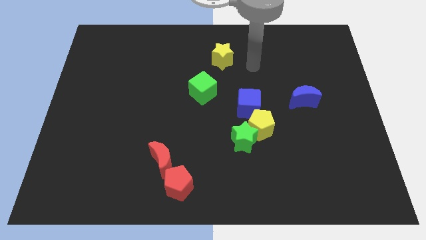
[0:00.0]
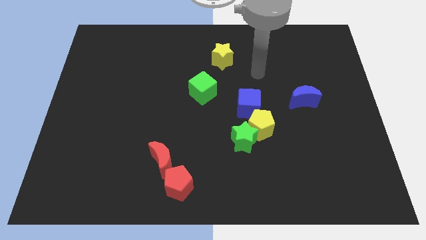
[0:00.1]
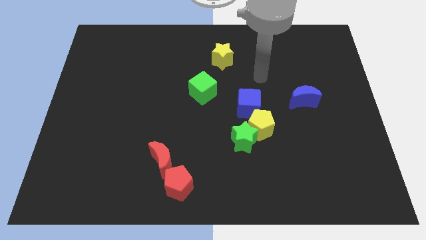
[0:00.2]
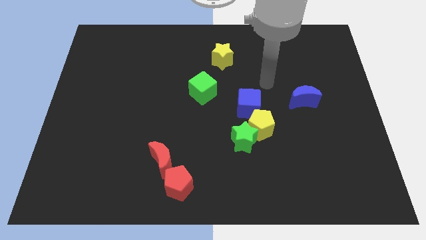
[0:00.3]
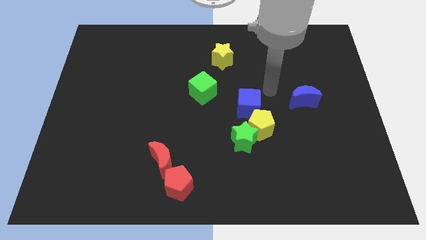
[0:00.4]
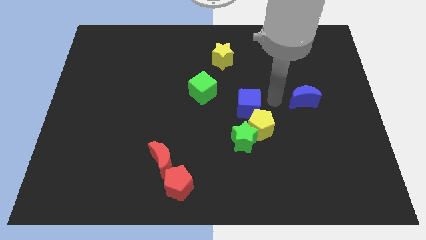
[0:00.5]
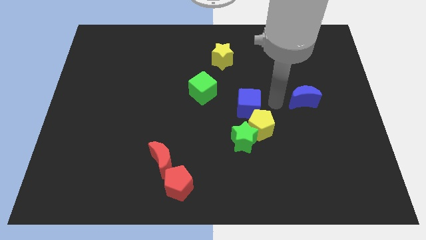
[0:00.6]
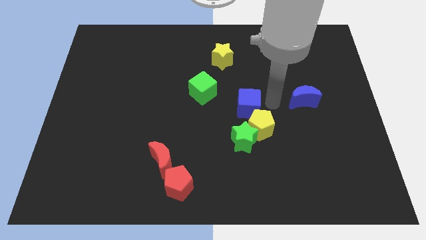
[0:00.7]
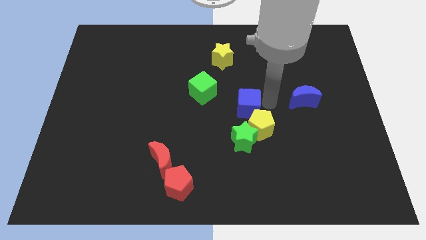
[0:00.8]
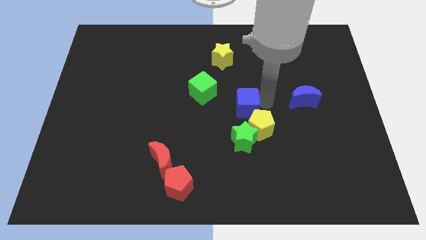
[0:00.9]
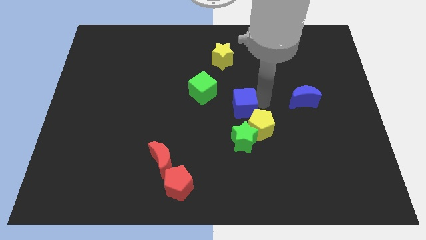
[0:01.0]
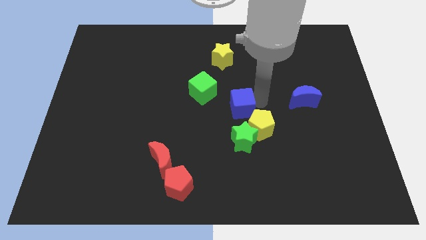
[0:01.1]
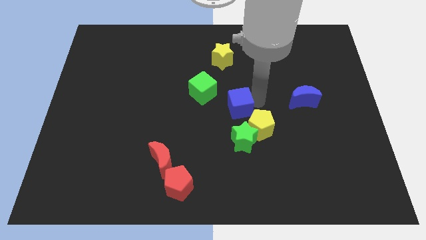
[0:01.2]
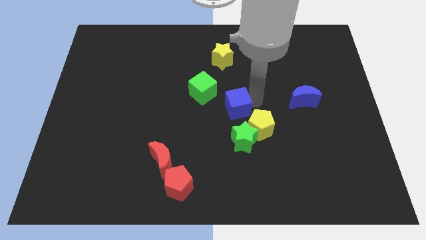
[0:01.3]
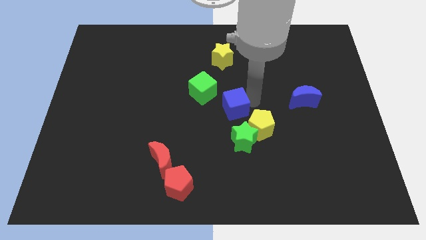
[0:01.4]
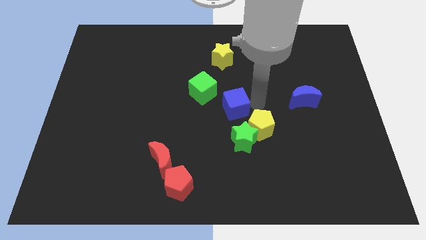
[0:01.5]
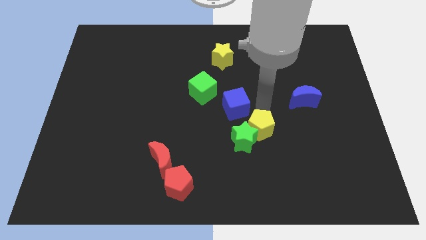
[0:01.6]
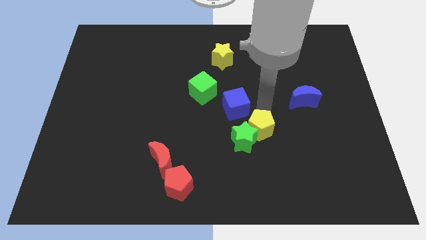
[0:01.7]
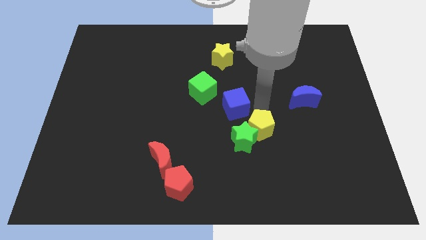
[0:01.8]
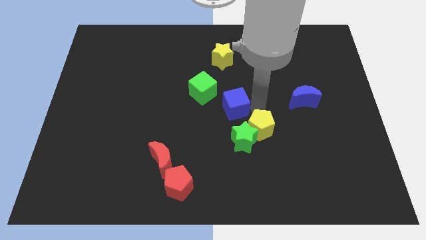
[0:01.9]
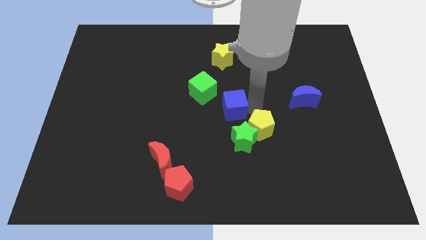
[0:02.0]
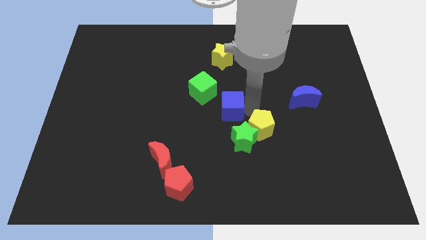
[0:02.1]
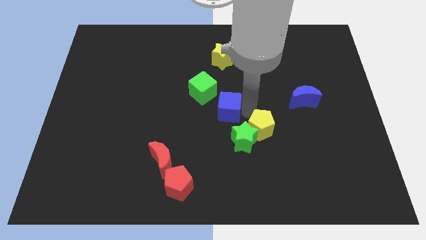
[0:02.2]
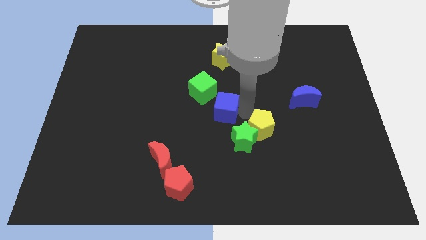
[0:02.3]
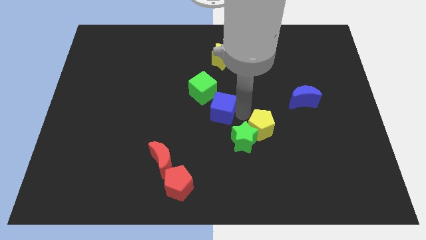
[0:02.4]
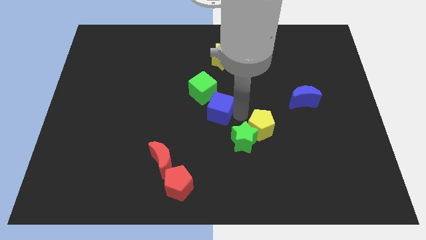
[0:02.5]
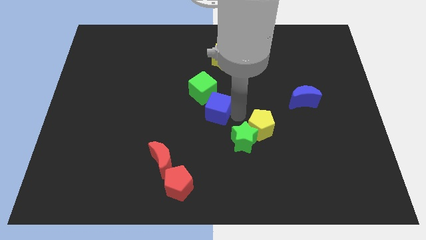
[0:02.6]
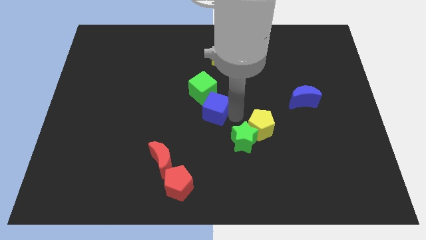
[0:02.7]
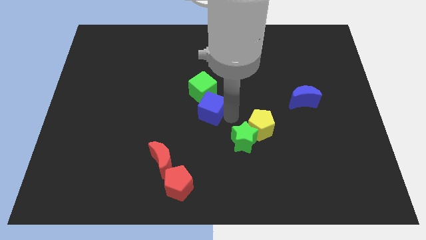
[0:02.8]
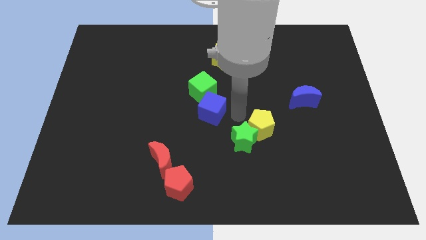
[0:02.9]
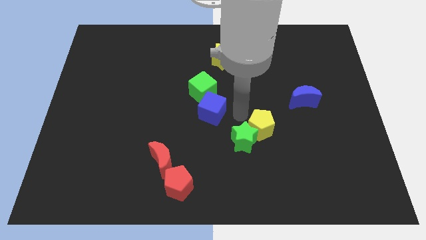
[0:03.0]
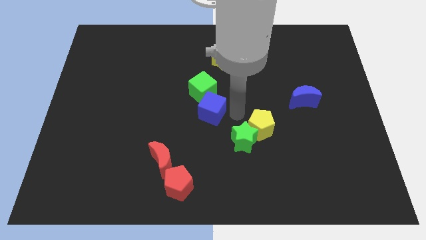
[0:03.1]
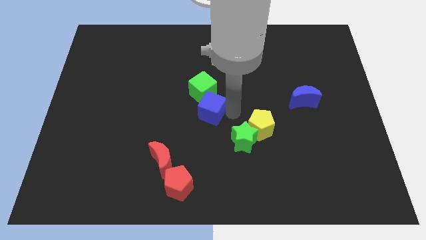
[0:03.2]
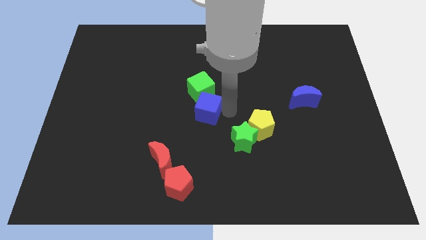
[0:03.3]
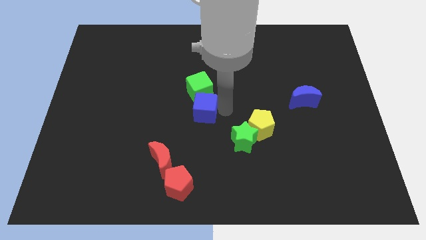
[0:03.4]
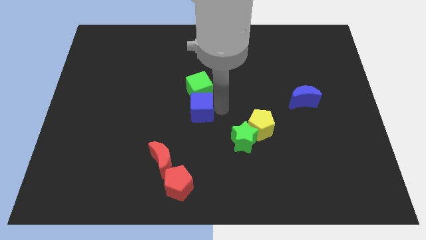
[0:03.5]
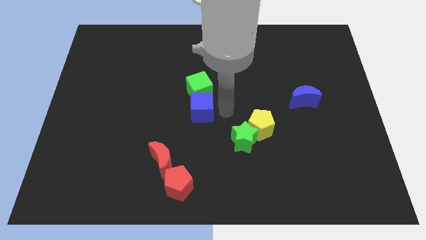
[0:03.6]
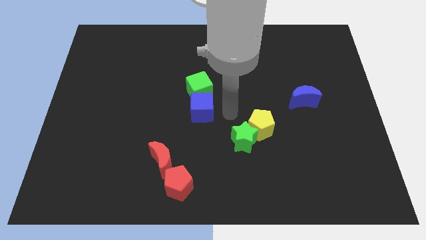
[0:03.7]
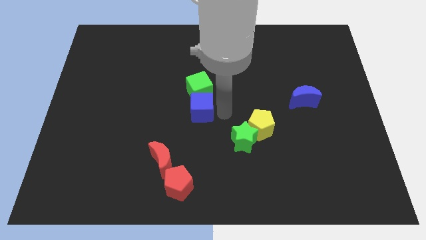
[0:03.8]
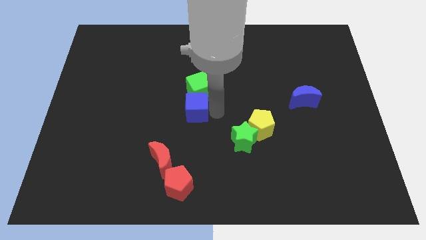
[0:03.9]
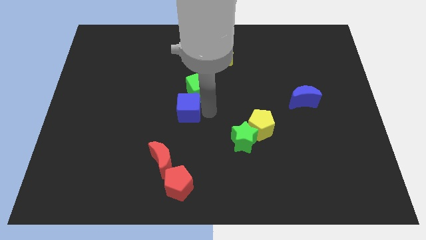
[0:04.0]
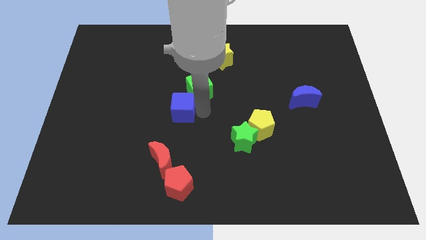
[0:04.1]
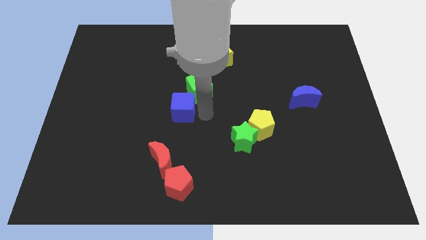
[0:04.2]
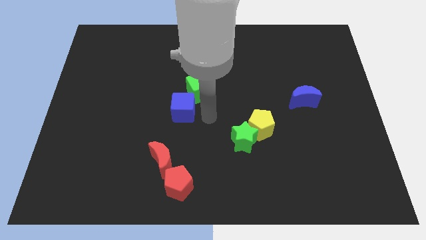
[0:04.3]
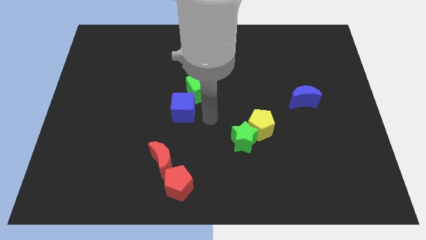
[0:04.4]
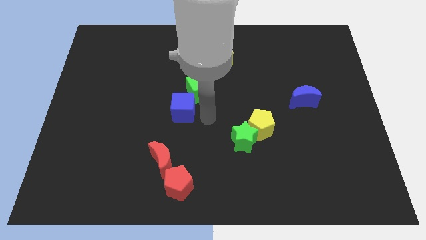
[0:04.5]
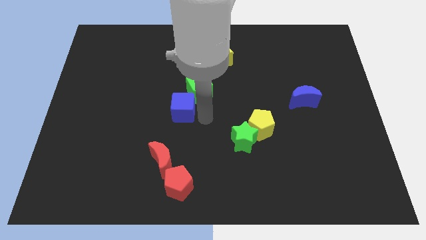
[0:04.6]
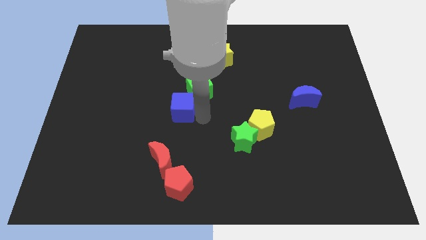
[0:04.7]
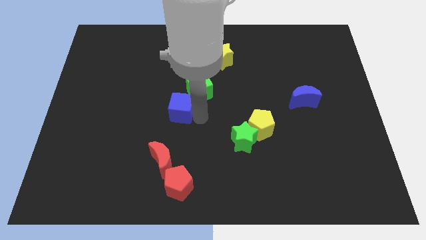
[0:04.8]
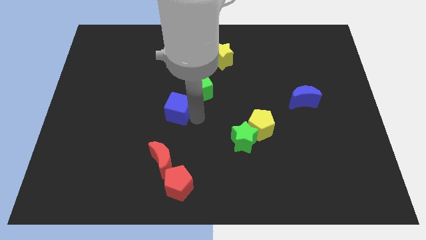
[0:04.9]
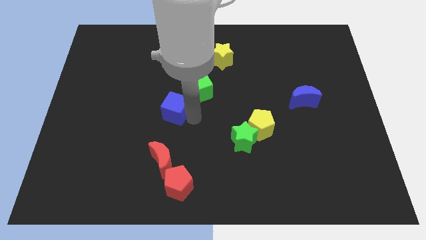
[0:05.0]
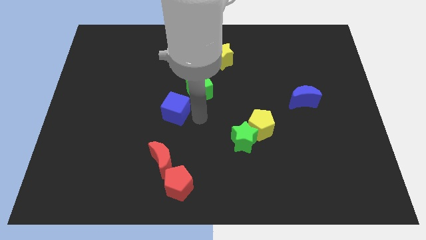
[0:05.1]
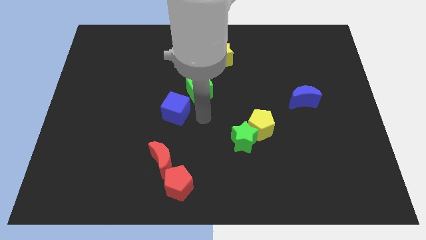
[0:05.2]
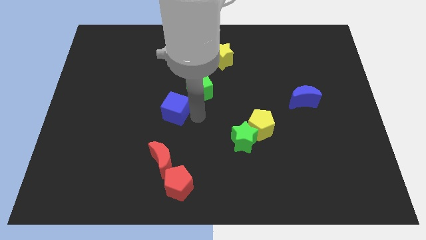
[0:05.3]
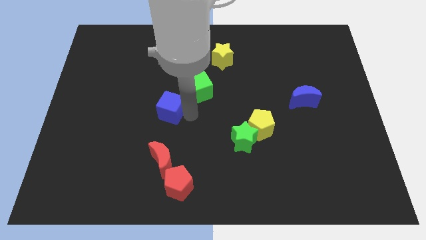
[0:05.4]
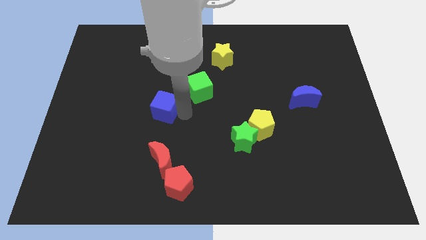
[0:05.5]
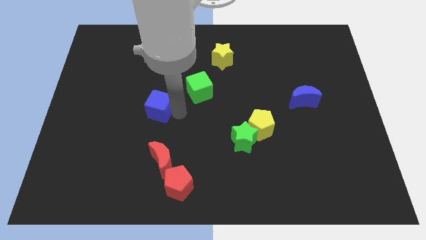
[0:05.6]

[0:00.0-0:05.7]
push the blue cube left

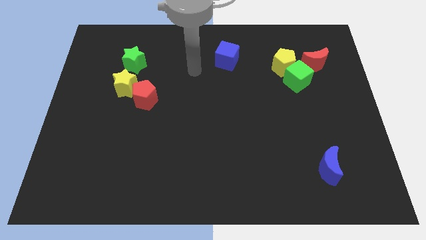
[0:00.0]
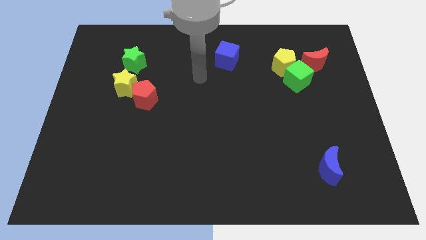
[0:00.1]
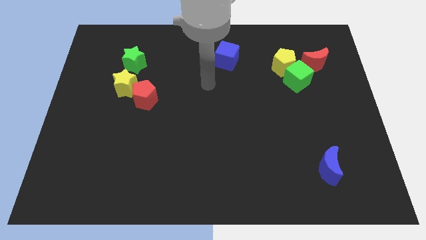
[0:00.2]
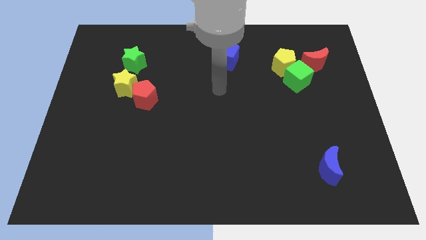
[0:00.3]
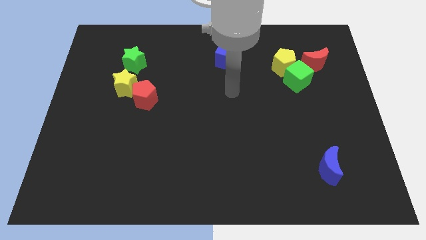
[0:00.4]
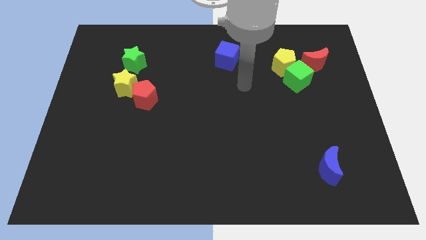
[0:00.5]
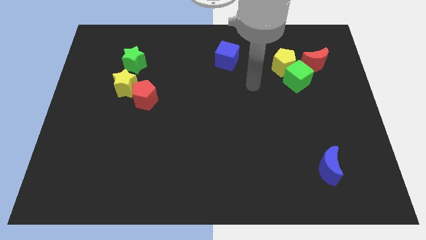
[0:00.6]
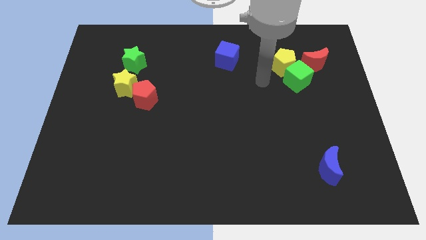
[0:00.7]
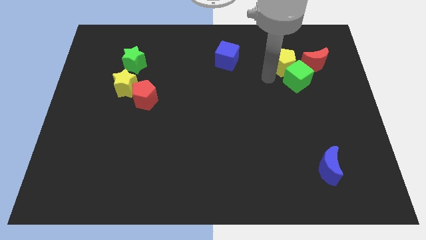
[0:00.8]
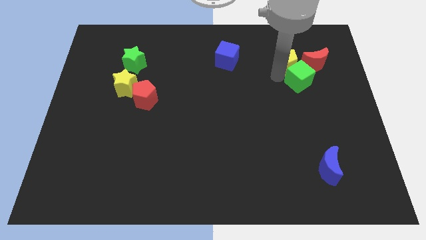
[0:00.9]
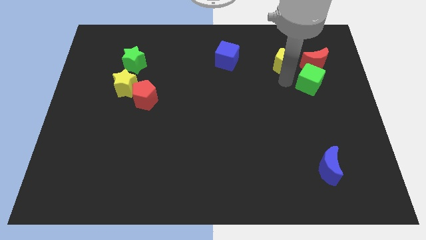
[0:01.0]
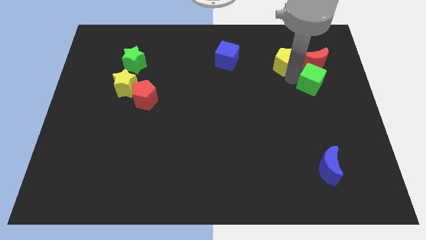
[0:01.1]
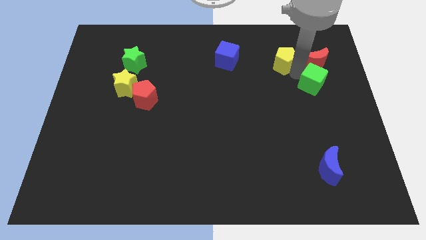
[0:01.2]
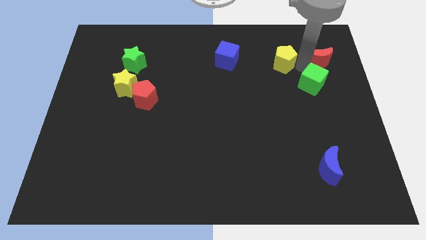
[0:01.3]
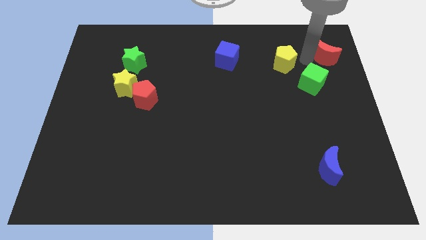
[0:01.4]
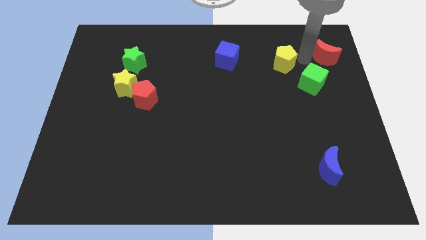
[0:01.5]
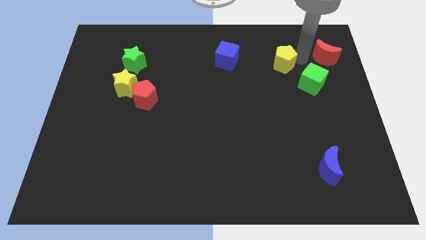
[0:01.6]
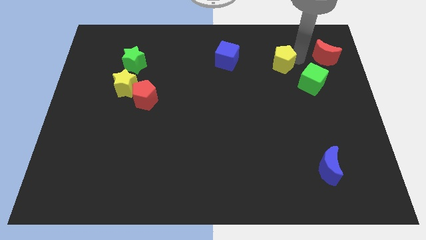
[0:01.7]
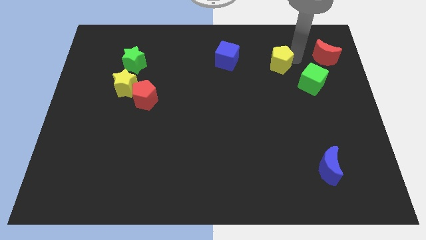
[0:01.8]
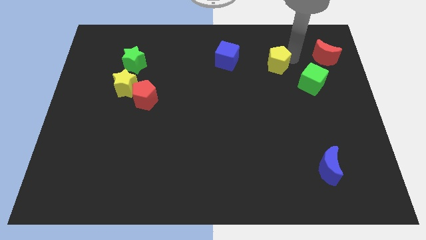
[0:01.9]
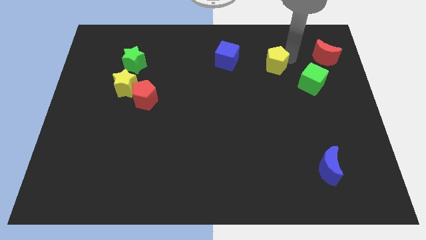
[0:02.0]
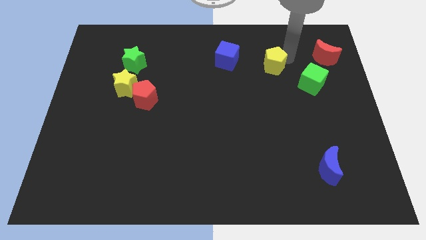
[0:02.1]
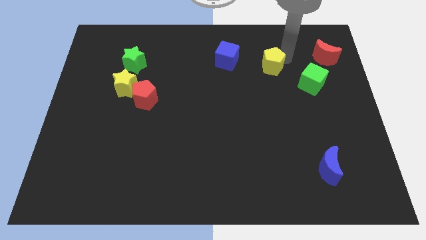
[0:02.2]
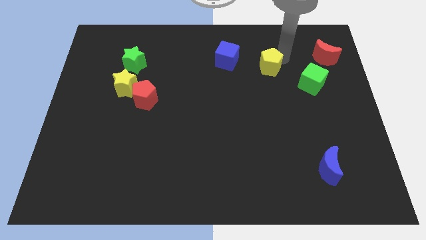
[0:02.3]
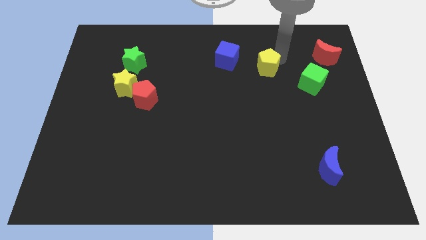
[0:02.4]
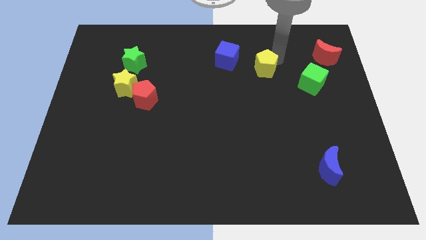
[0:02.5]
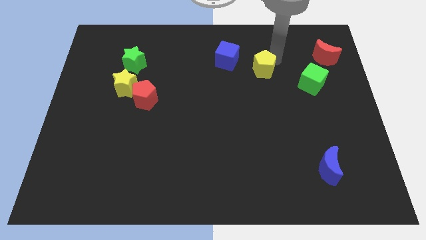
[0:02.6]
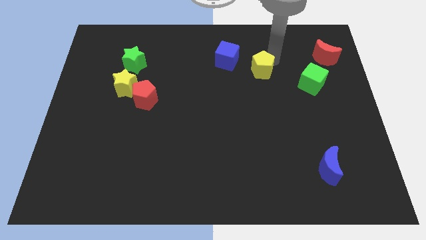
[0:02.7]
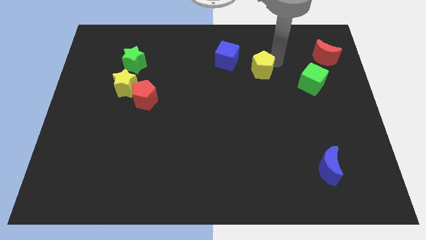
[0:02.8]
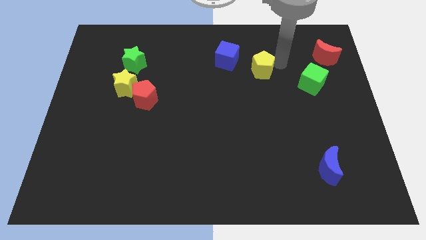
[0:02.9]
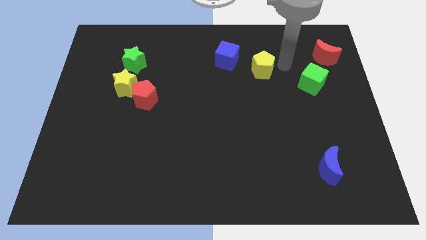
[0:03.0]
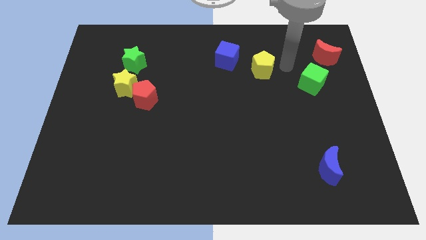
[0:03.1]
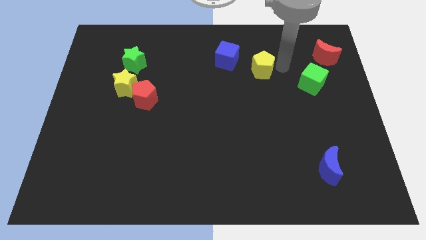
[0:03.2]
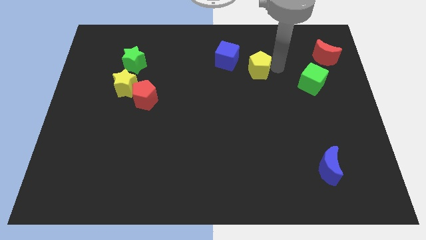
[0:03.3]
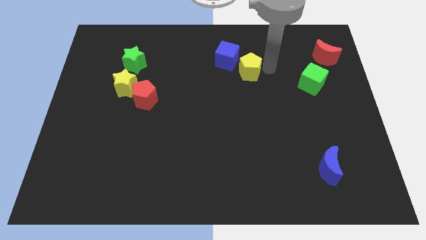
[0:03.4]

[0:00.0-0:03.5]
push the yellow pentagon a little to the left
